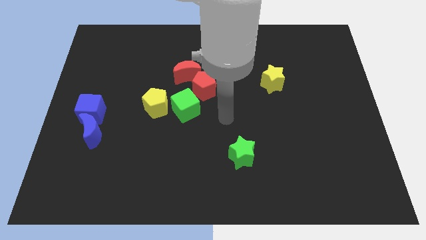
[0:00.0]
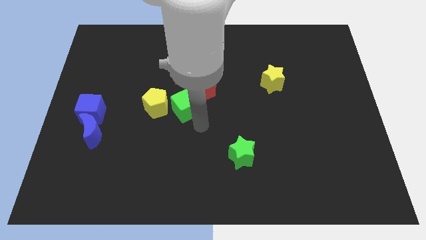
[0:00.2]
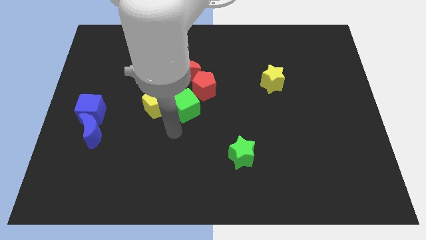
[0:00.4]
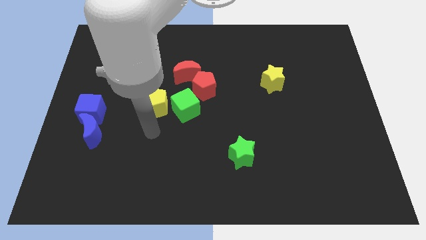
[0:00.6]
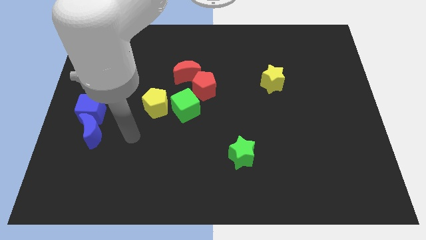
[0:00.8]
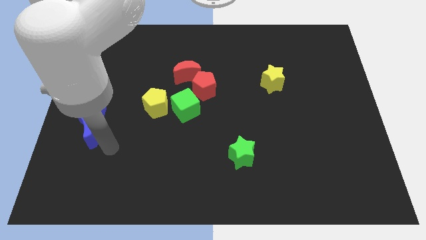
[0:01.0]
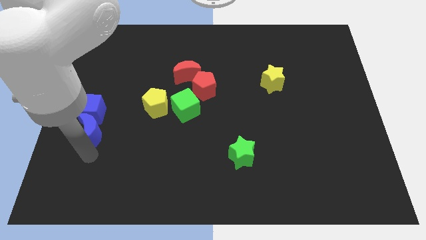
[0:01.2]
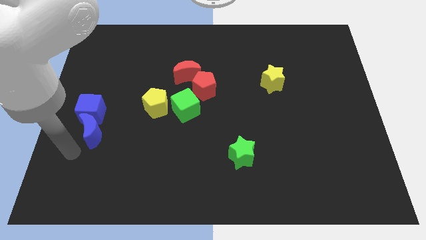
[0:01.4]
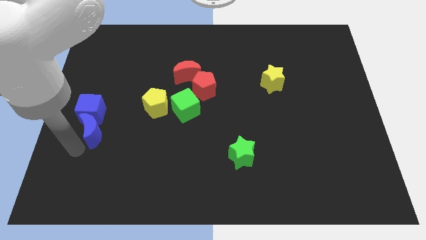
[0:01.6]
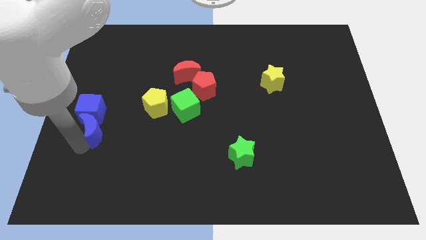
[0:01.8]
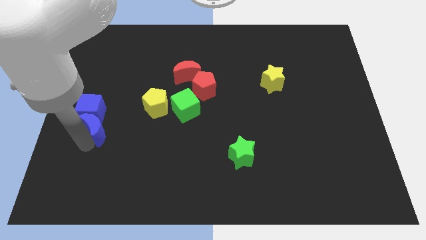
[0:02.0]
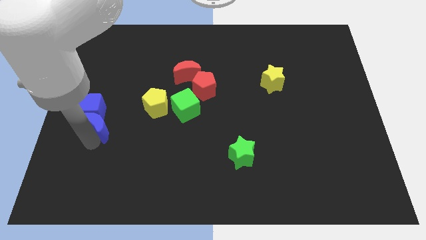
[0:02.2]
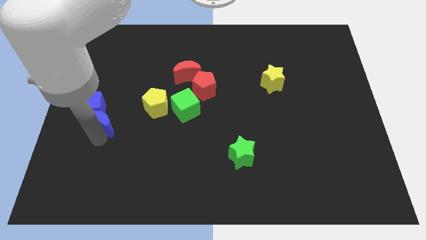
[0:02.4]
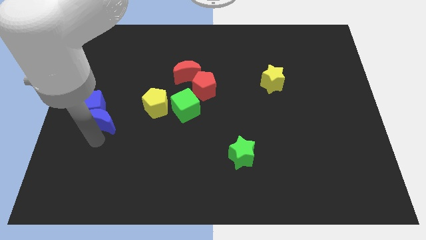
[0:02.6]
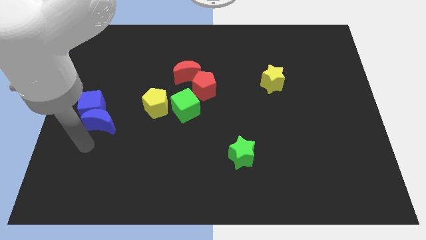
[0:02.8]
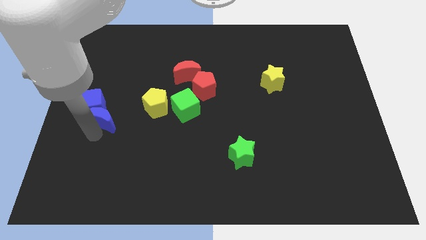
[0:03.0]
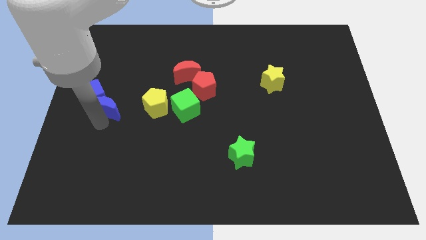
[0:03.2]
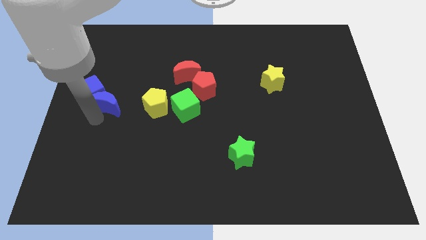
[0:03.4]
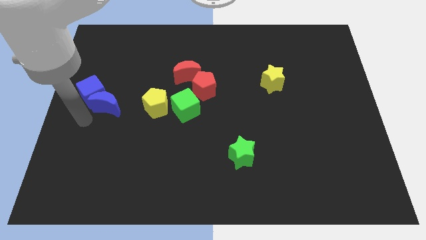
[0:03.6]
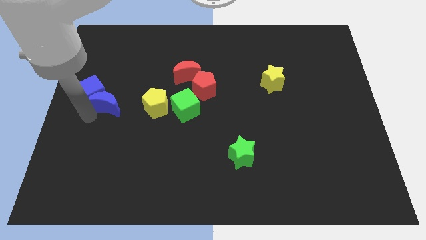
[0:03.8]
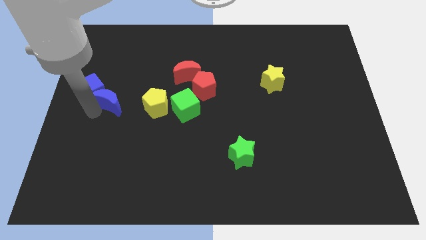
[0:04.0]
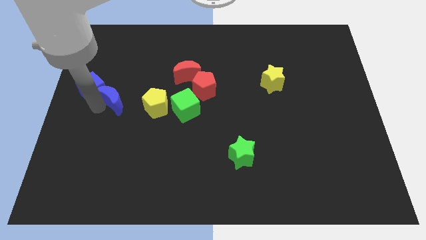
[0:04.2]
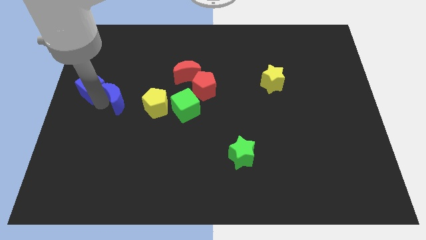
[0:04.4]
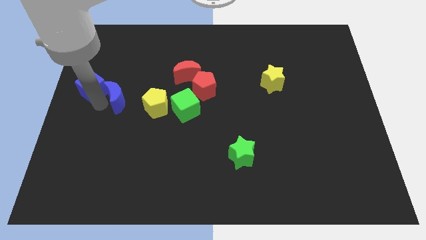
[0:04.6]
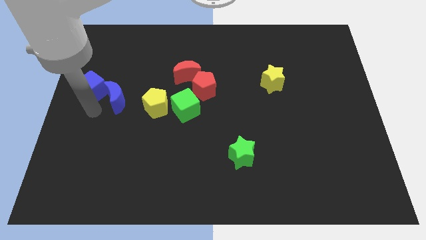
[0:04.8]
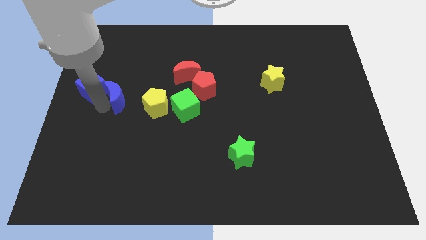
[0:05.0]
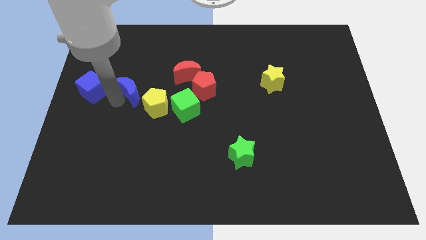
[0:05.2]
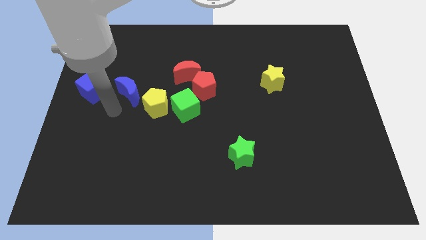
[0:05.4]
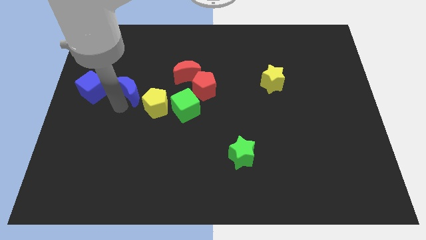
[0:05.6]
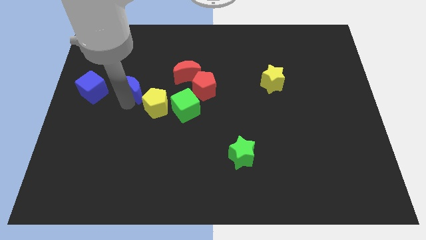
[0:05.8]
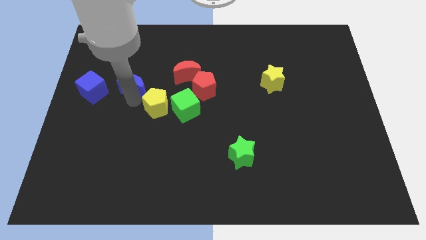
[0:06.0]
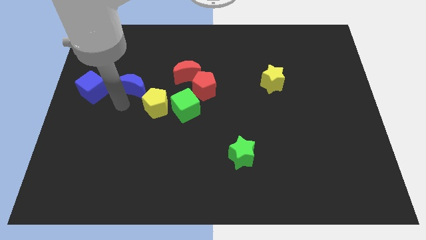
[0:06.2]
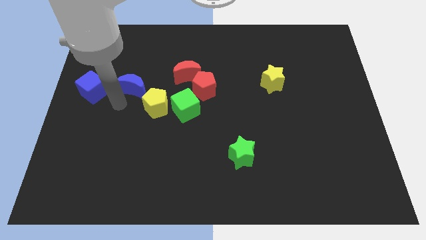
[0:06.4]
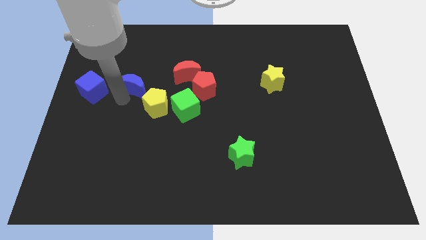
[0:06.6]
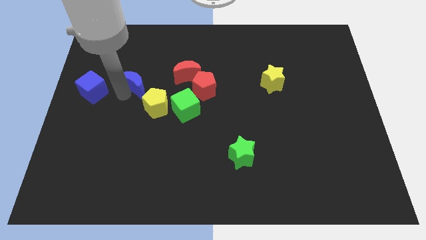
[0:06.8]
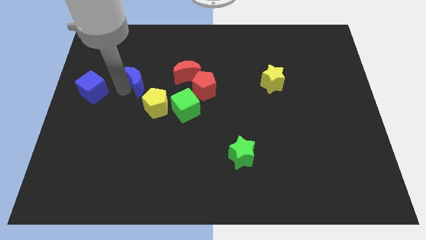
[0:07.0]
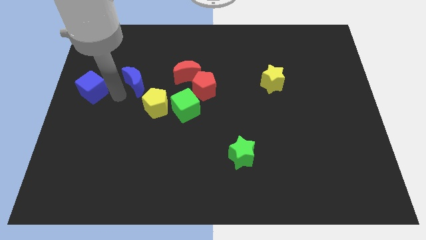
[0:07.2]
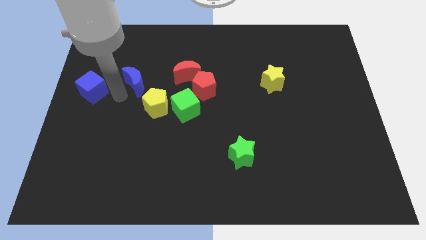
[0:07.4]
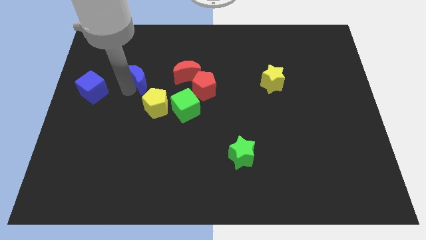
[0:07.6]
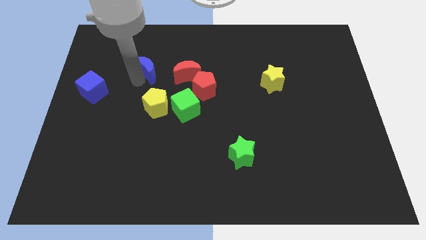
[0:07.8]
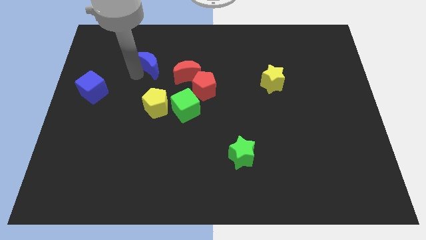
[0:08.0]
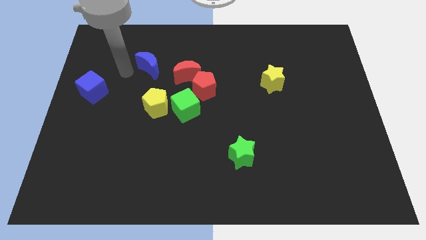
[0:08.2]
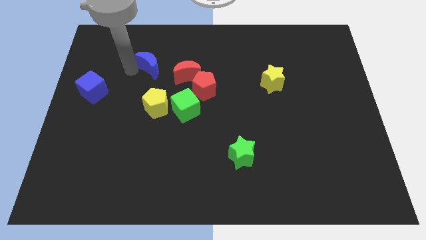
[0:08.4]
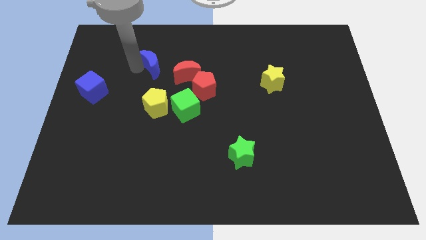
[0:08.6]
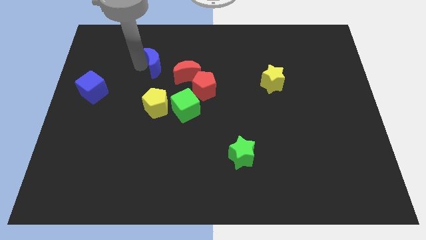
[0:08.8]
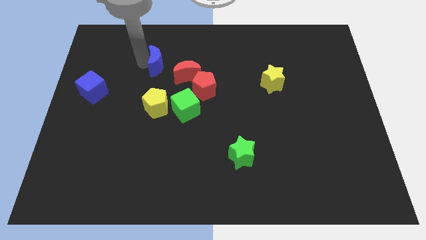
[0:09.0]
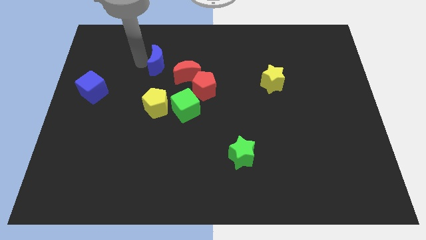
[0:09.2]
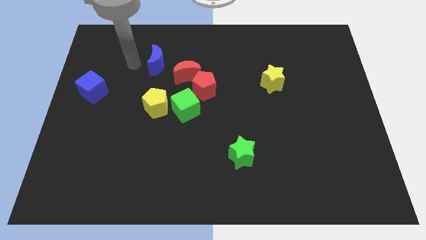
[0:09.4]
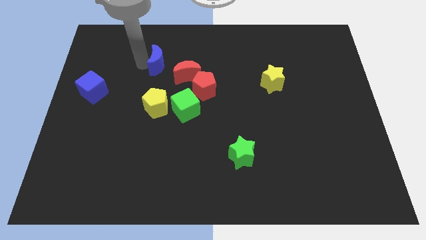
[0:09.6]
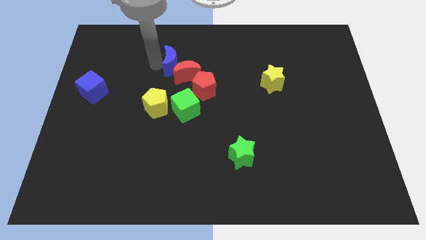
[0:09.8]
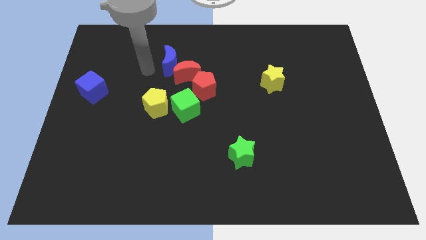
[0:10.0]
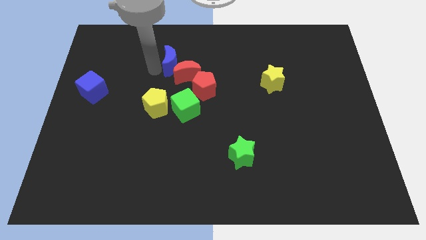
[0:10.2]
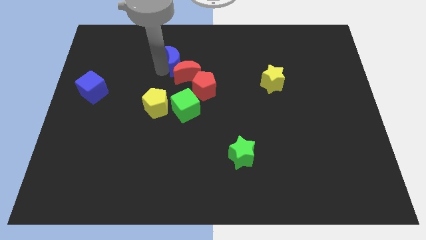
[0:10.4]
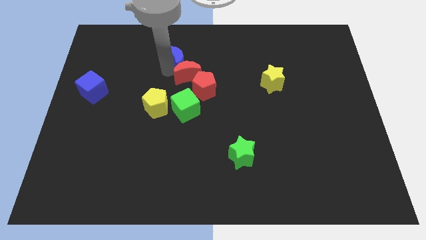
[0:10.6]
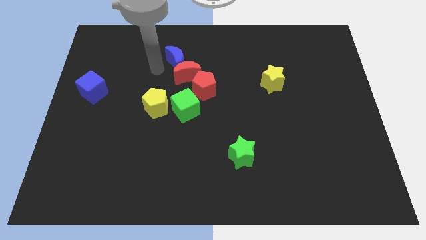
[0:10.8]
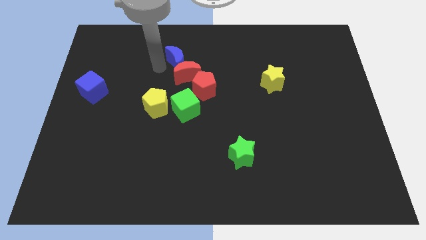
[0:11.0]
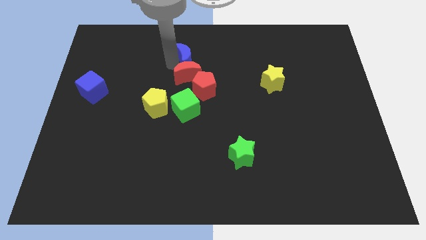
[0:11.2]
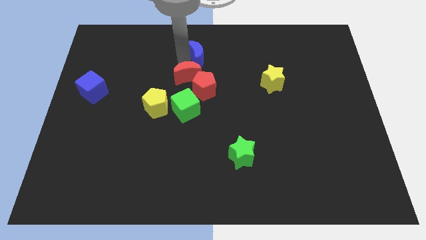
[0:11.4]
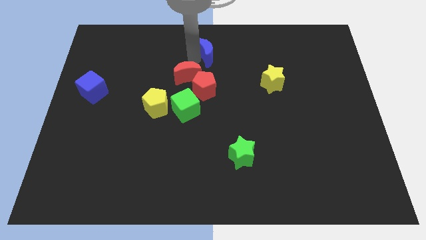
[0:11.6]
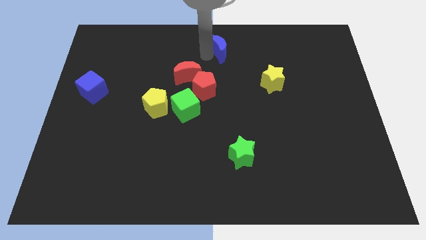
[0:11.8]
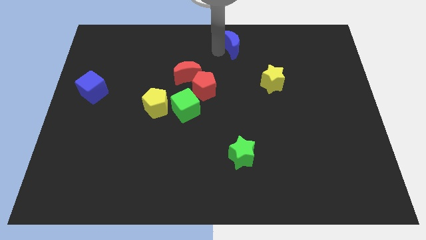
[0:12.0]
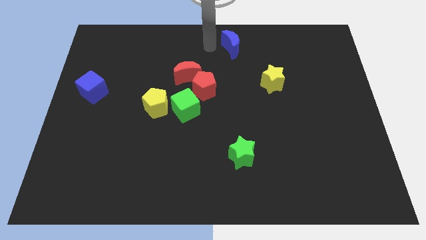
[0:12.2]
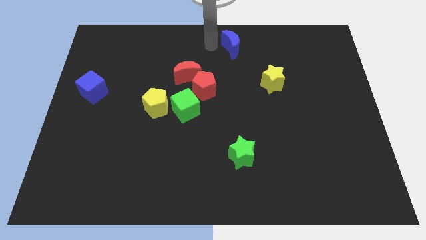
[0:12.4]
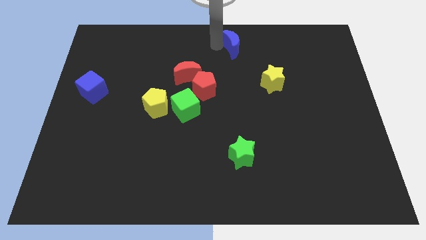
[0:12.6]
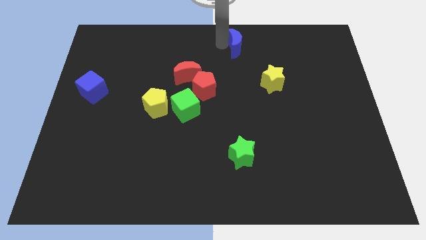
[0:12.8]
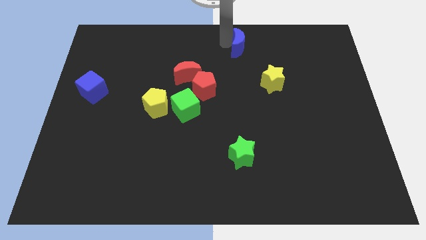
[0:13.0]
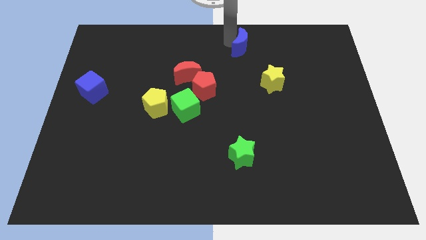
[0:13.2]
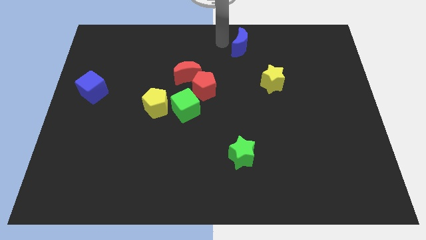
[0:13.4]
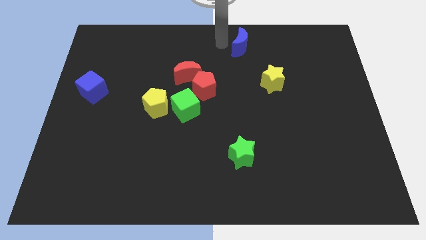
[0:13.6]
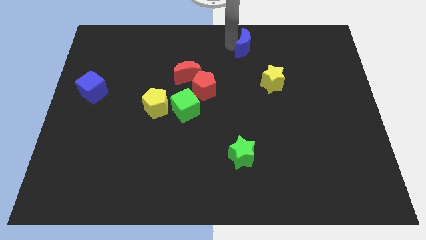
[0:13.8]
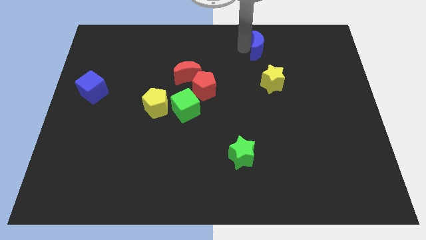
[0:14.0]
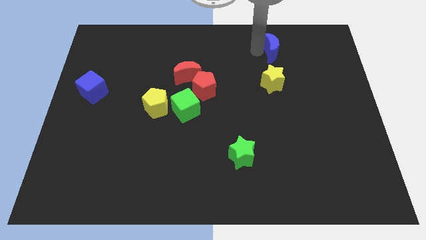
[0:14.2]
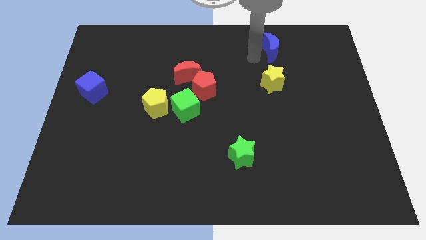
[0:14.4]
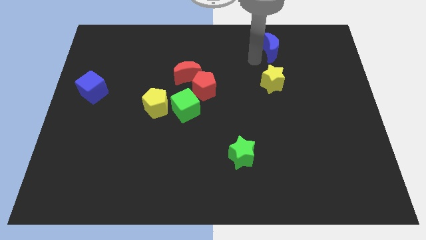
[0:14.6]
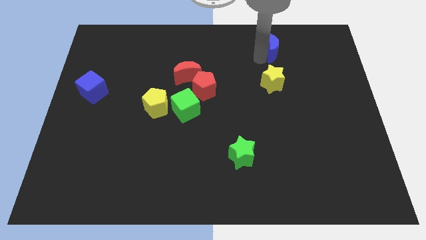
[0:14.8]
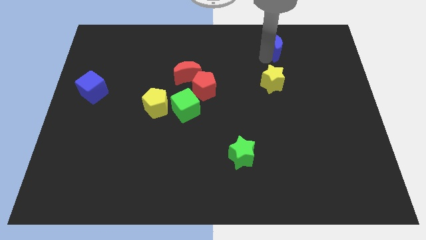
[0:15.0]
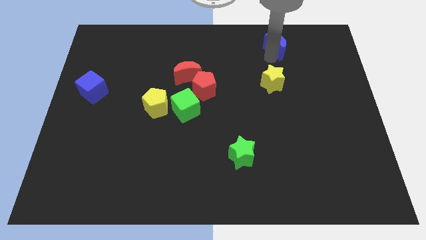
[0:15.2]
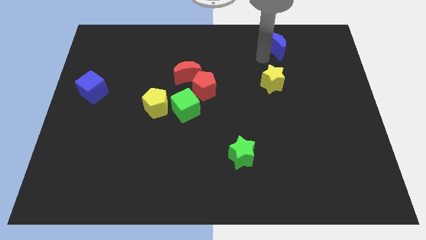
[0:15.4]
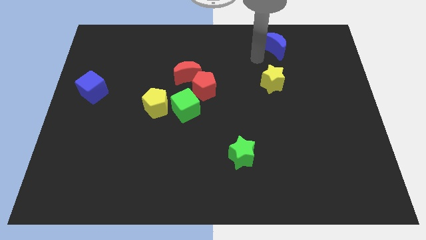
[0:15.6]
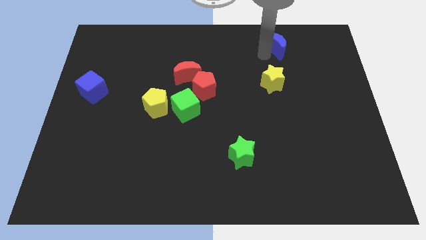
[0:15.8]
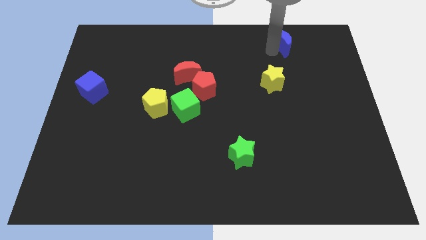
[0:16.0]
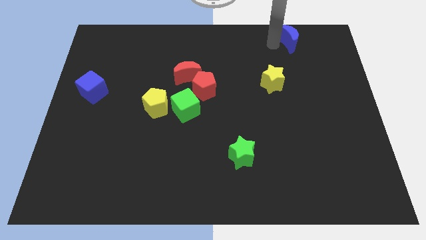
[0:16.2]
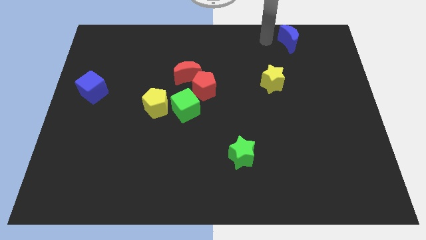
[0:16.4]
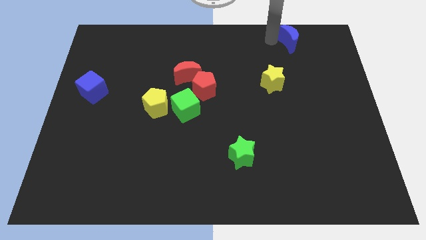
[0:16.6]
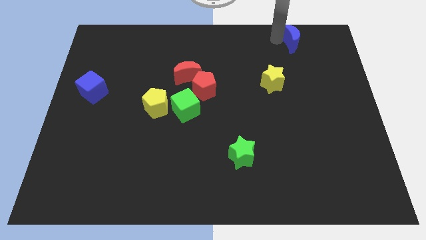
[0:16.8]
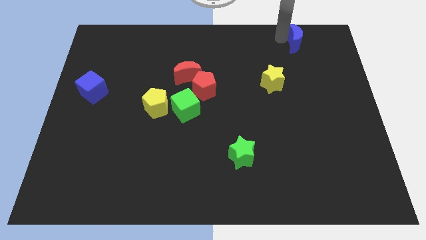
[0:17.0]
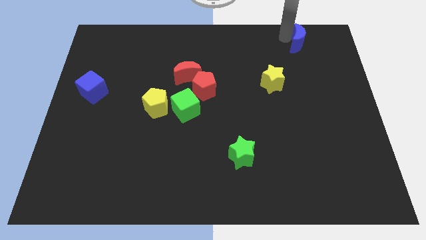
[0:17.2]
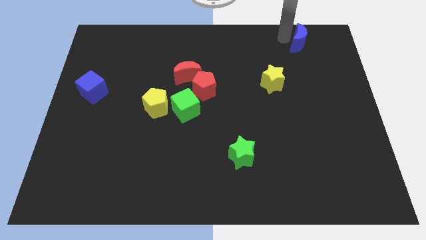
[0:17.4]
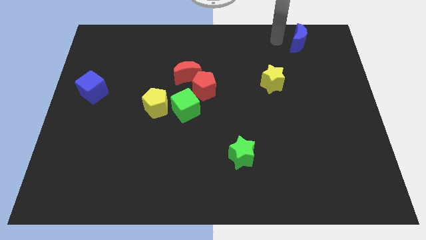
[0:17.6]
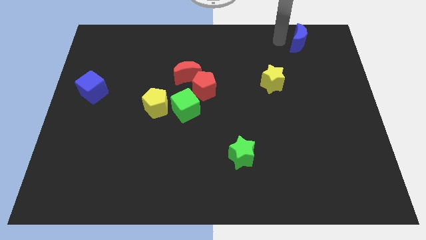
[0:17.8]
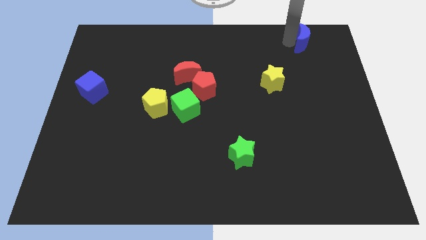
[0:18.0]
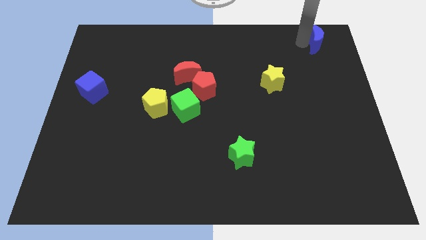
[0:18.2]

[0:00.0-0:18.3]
slide the blue moon to the upper right corner
